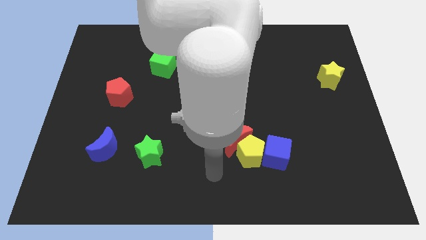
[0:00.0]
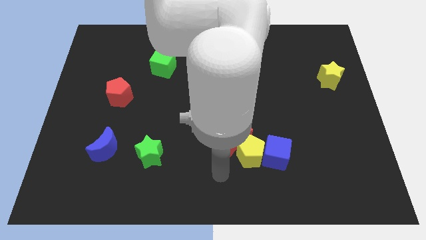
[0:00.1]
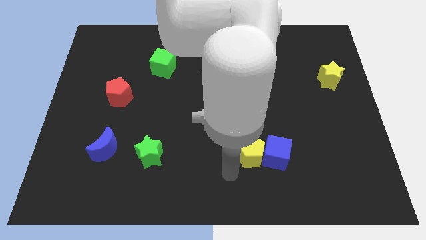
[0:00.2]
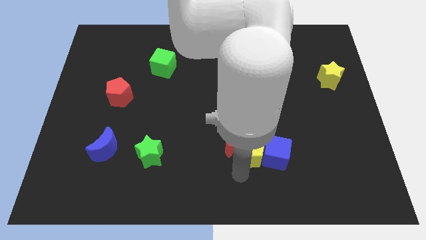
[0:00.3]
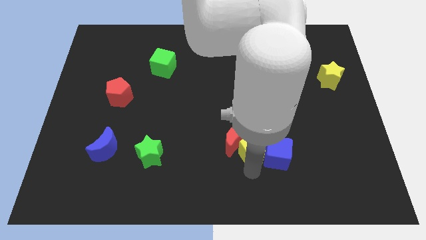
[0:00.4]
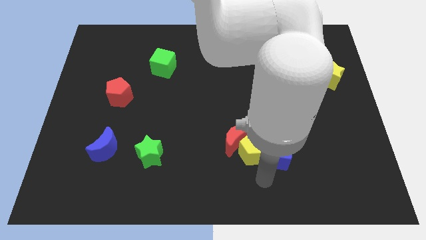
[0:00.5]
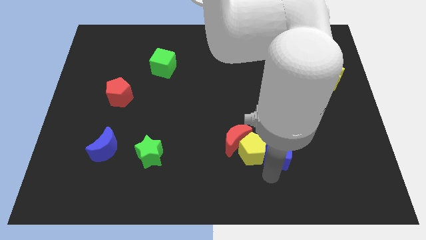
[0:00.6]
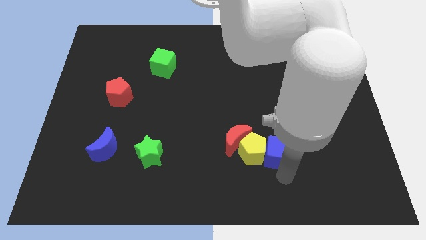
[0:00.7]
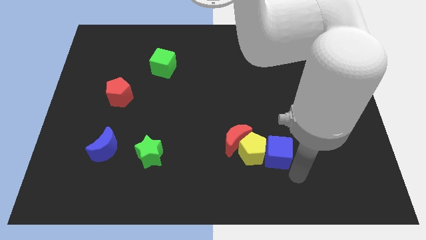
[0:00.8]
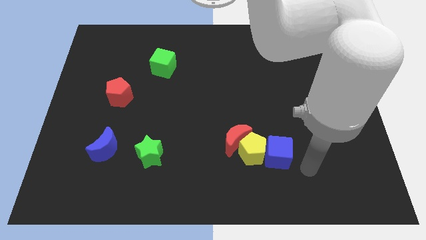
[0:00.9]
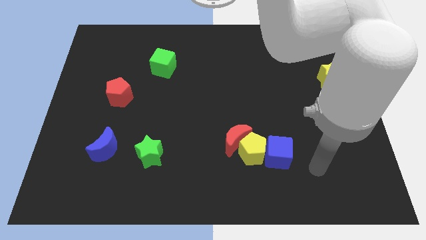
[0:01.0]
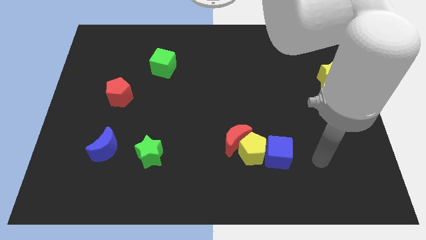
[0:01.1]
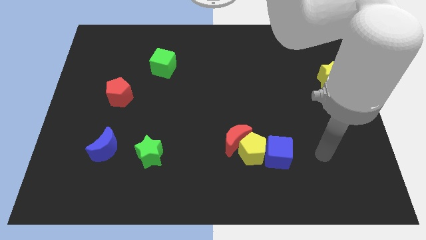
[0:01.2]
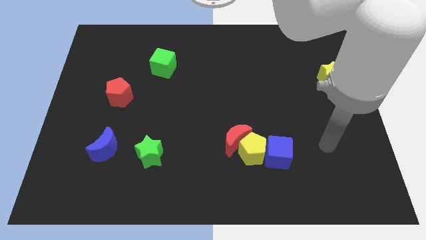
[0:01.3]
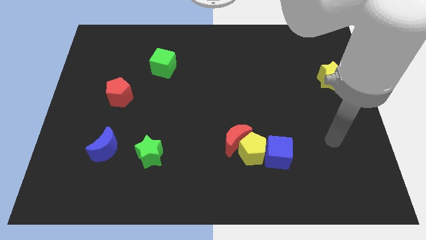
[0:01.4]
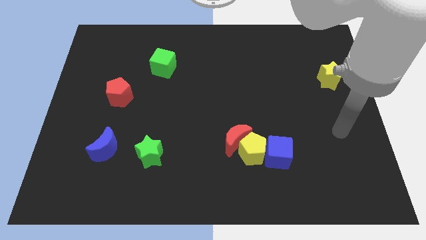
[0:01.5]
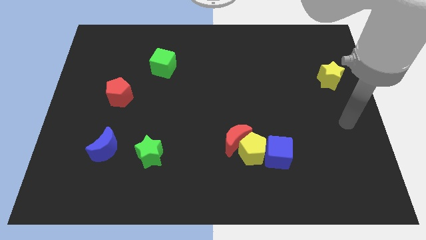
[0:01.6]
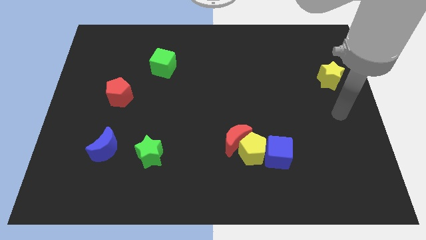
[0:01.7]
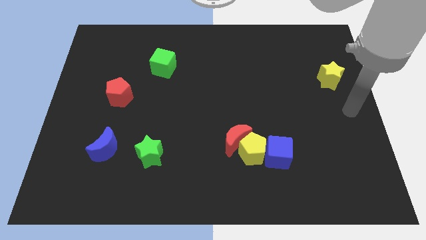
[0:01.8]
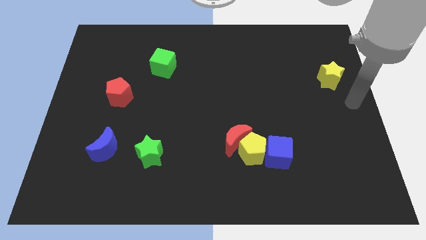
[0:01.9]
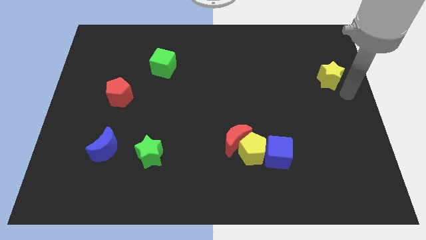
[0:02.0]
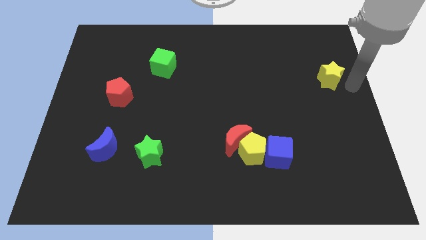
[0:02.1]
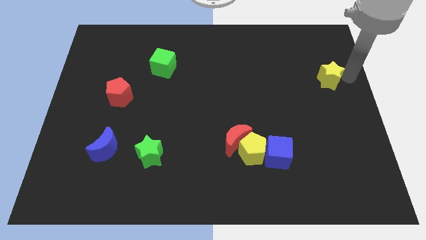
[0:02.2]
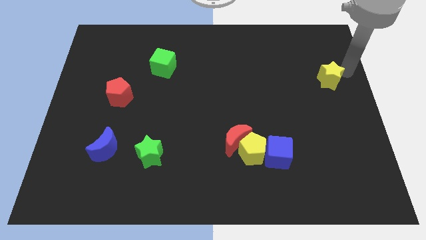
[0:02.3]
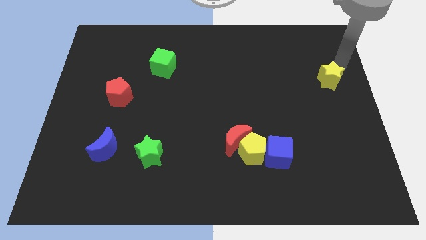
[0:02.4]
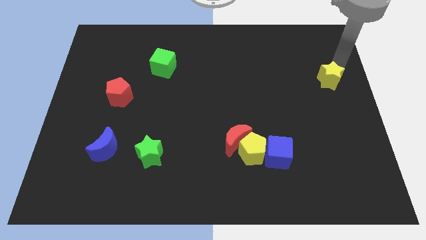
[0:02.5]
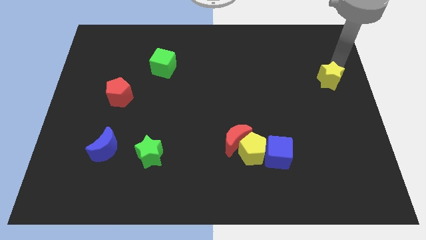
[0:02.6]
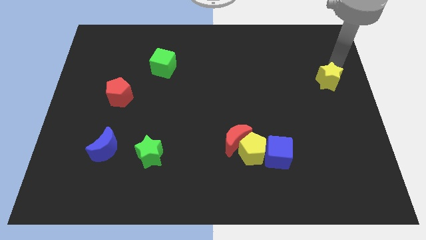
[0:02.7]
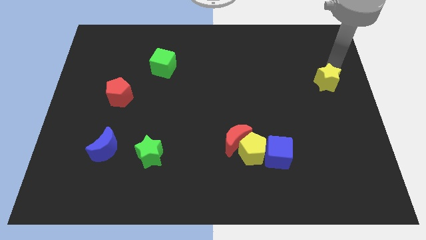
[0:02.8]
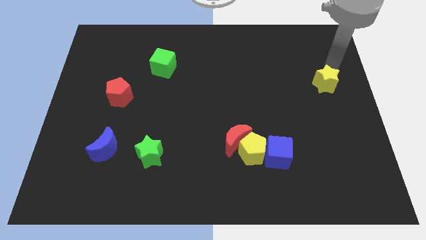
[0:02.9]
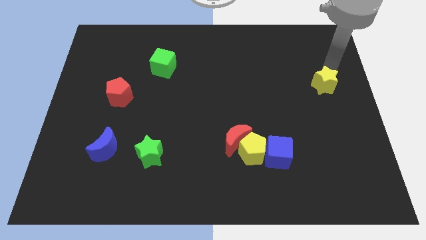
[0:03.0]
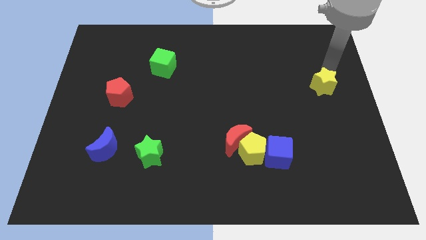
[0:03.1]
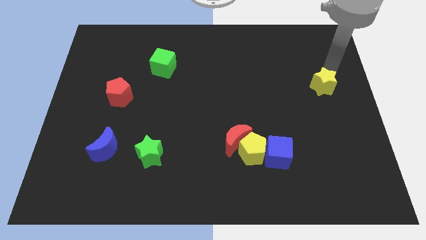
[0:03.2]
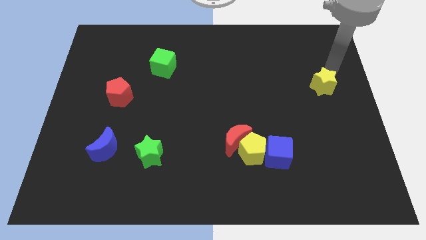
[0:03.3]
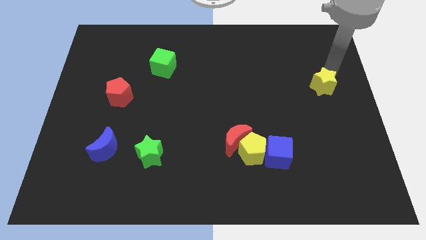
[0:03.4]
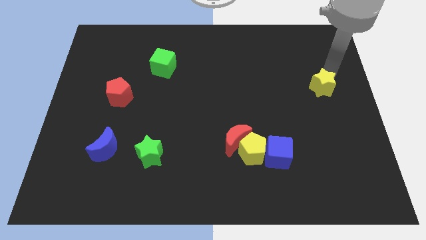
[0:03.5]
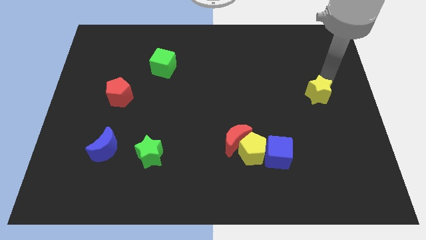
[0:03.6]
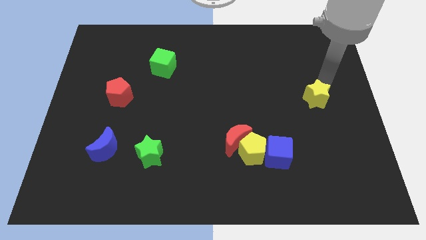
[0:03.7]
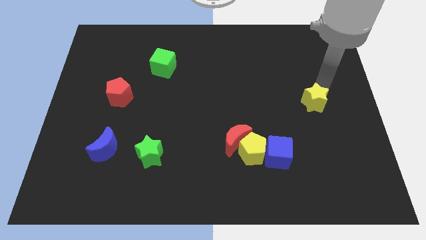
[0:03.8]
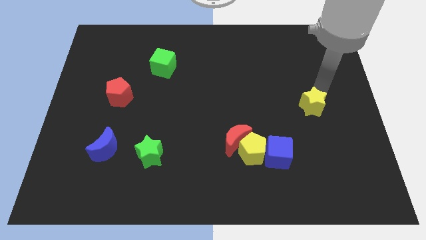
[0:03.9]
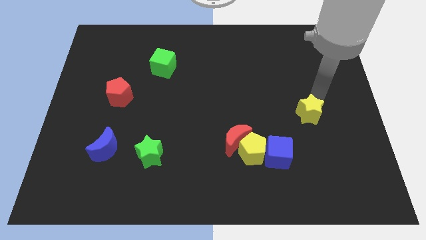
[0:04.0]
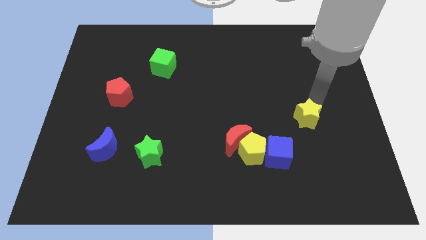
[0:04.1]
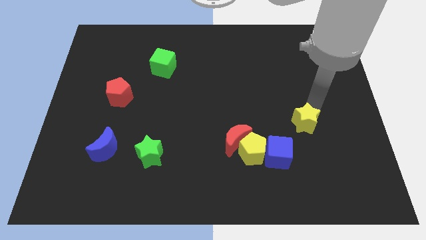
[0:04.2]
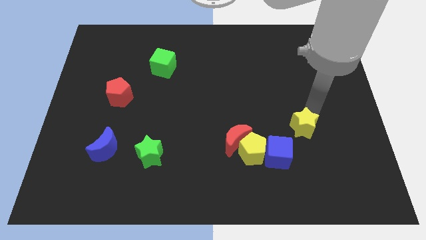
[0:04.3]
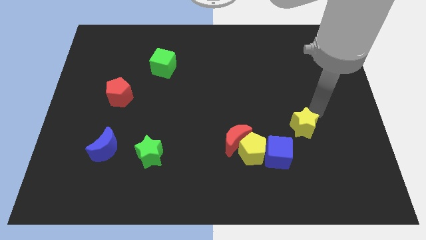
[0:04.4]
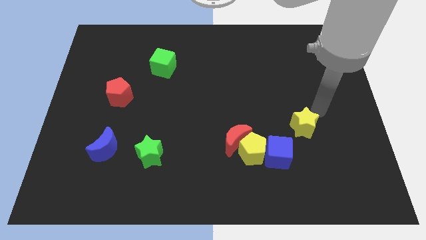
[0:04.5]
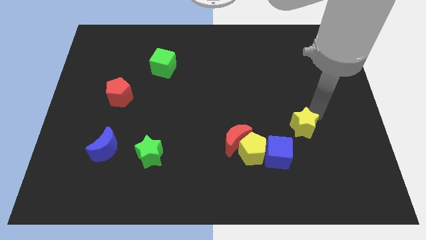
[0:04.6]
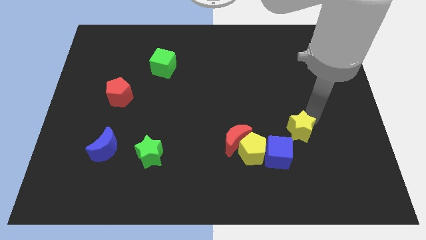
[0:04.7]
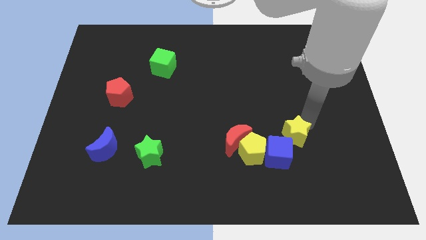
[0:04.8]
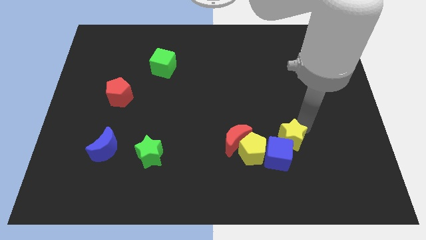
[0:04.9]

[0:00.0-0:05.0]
move the yellow star towards the blue cube

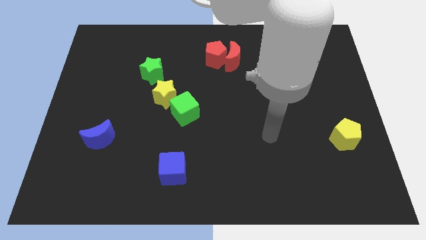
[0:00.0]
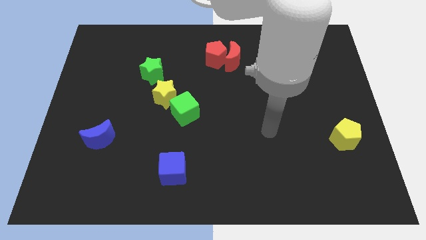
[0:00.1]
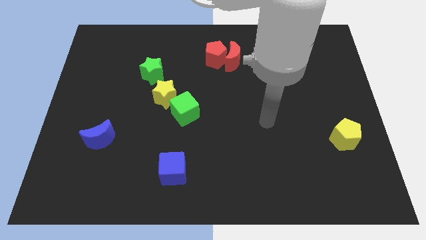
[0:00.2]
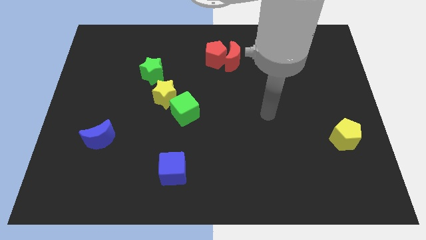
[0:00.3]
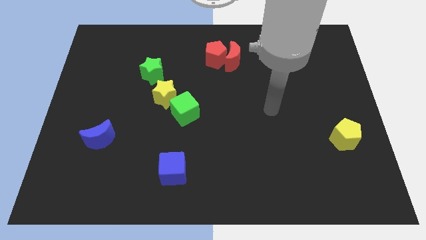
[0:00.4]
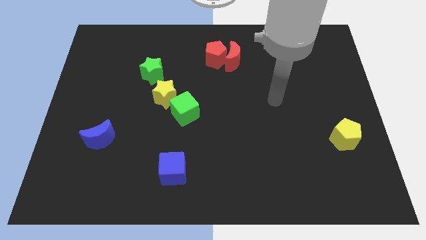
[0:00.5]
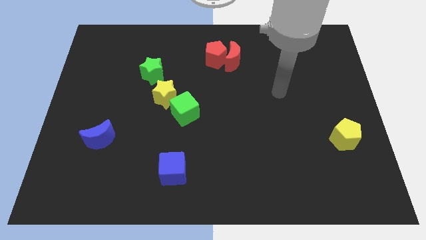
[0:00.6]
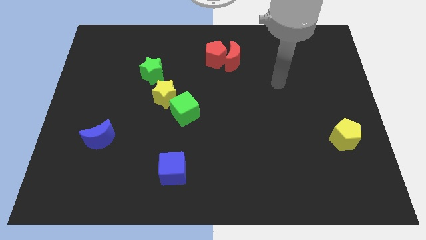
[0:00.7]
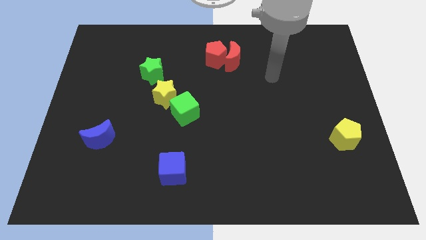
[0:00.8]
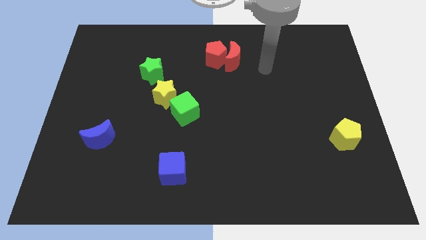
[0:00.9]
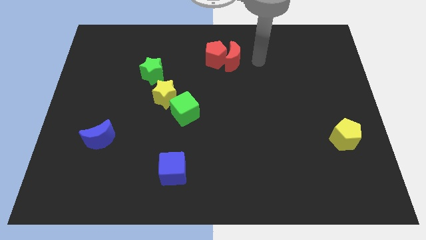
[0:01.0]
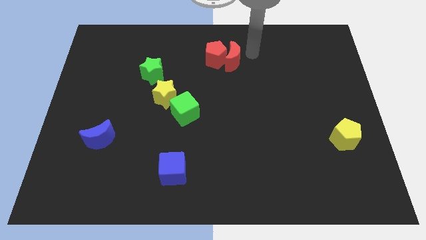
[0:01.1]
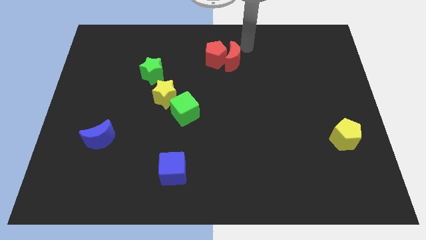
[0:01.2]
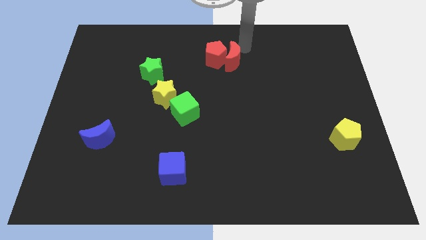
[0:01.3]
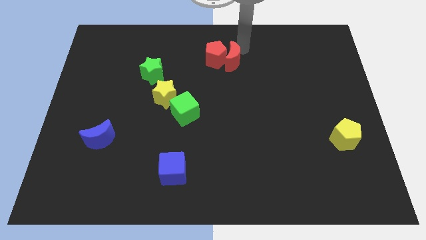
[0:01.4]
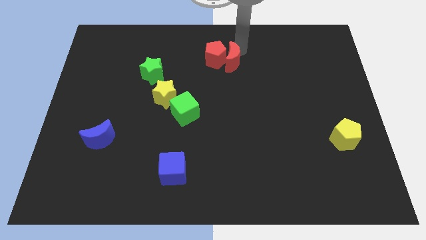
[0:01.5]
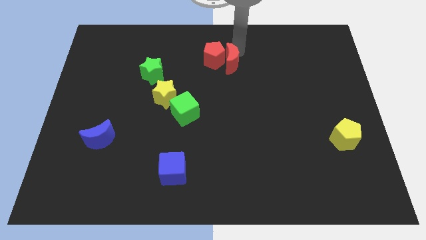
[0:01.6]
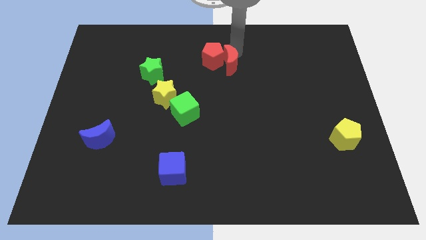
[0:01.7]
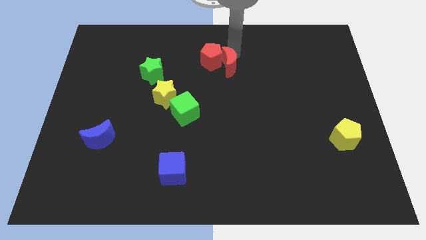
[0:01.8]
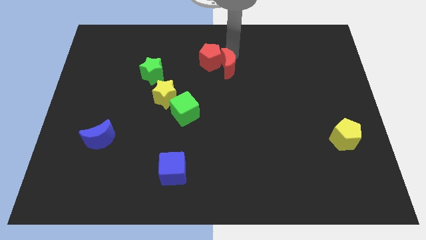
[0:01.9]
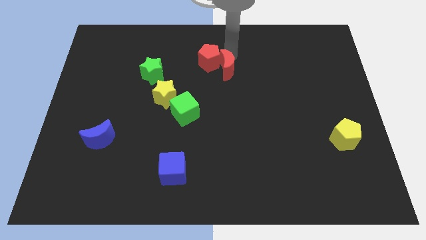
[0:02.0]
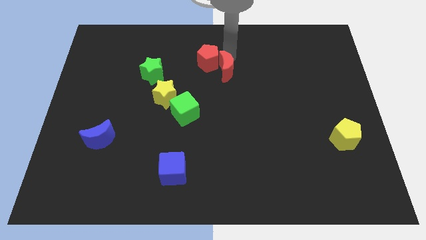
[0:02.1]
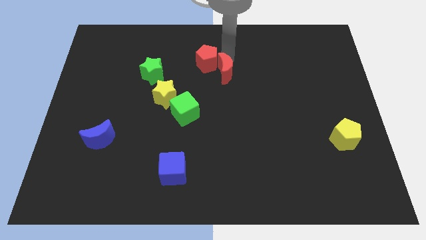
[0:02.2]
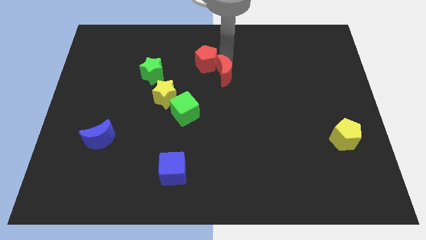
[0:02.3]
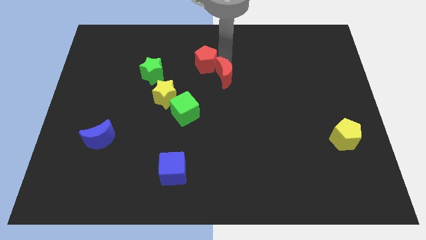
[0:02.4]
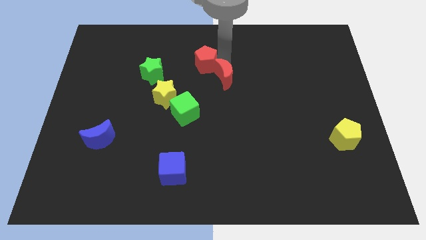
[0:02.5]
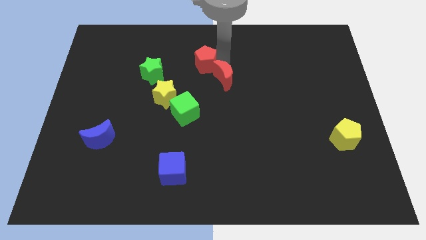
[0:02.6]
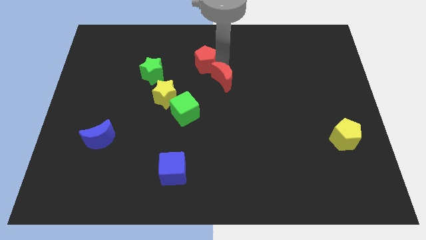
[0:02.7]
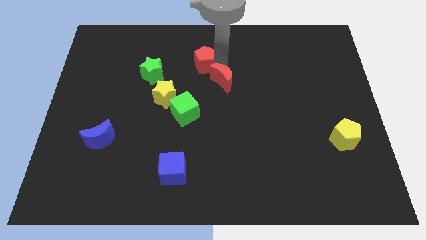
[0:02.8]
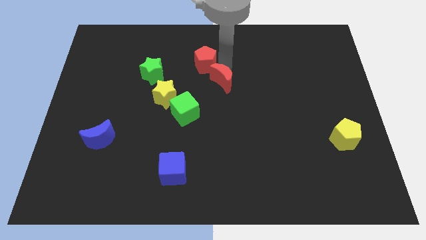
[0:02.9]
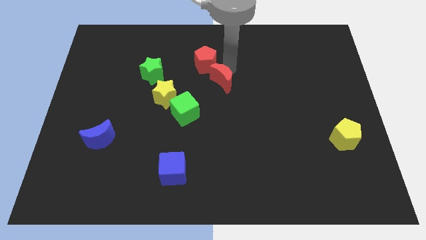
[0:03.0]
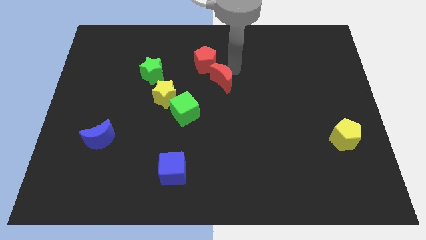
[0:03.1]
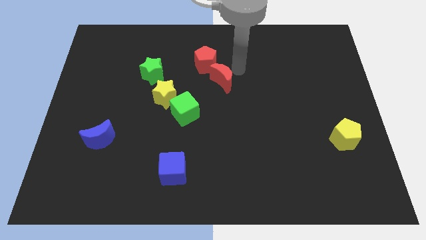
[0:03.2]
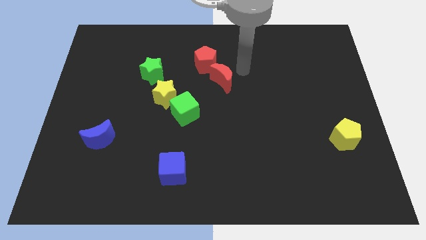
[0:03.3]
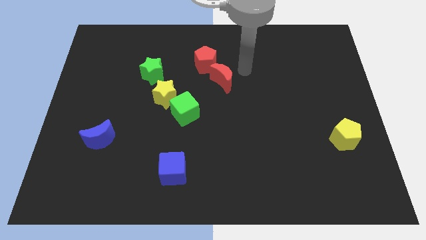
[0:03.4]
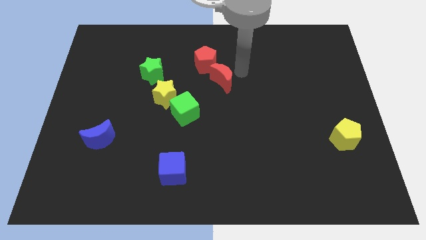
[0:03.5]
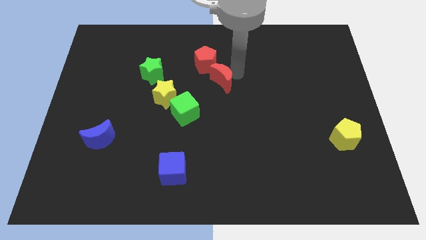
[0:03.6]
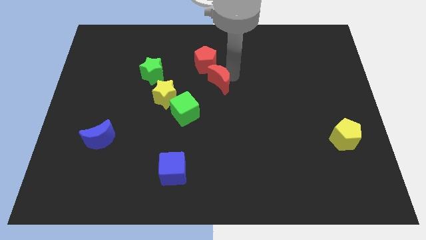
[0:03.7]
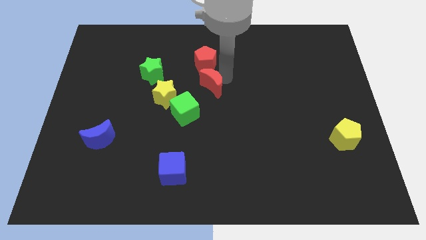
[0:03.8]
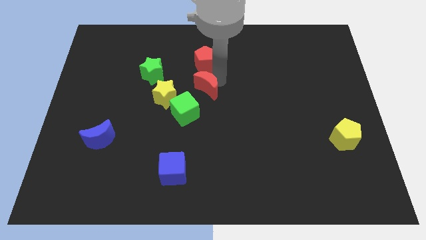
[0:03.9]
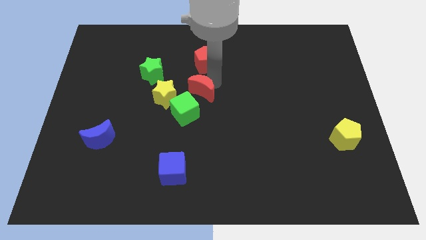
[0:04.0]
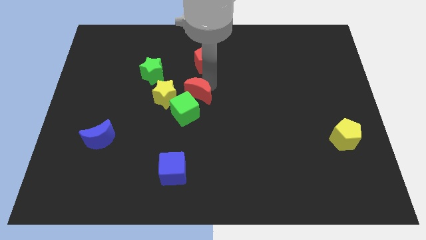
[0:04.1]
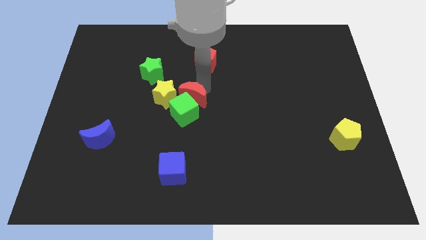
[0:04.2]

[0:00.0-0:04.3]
move the red moon to the green cube
